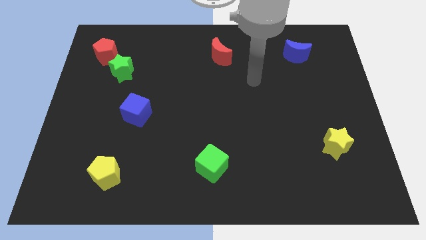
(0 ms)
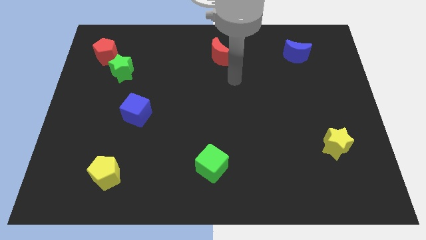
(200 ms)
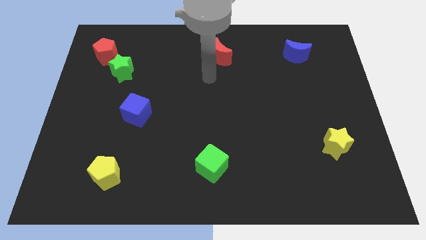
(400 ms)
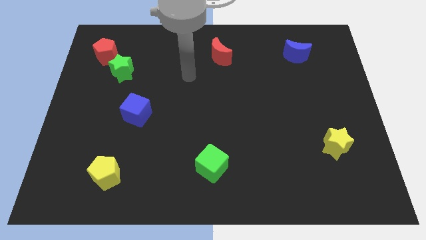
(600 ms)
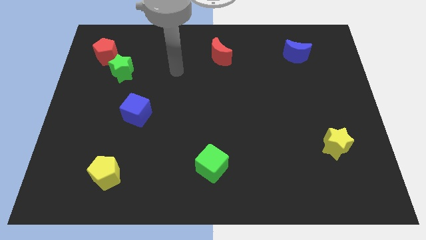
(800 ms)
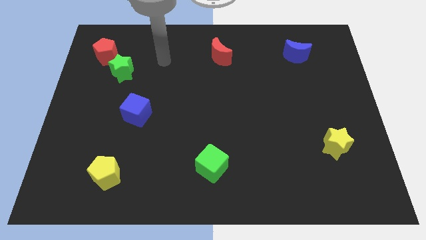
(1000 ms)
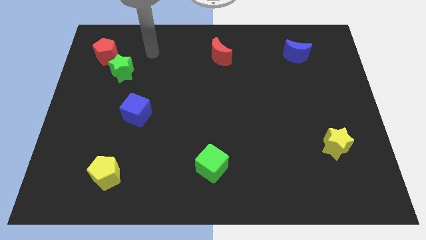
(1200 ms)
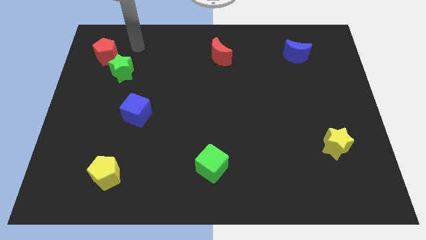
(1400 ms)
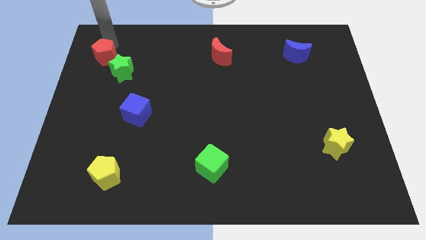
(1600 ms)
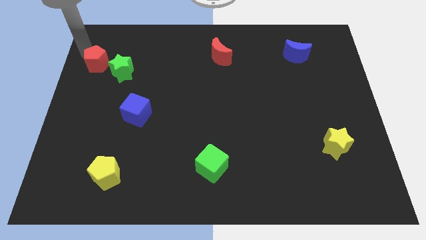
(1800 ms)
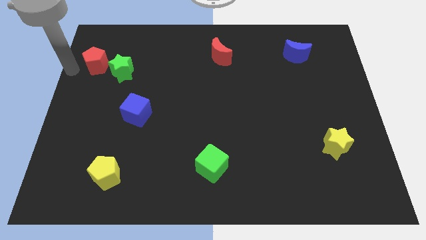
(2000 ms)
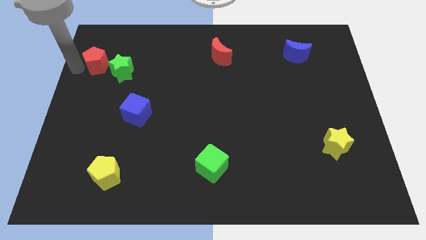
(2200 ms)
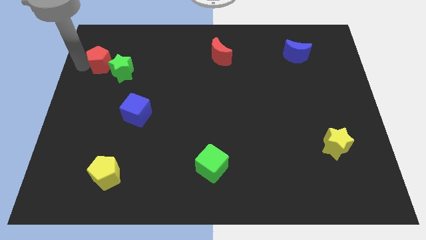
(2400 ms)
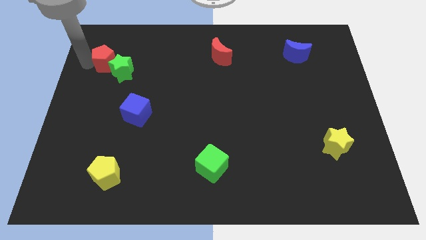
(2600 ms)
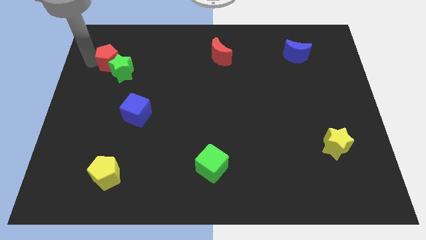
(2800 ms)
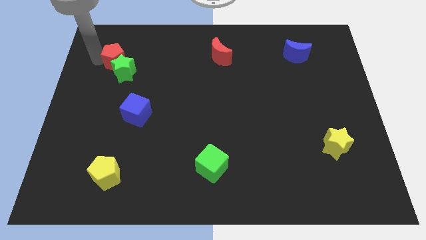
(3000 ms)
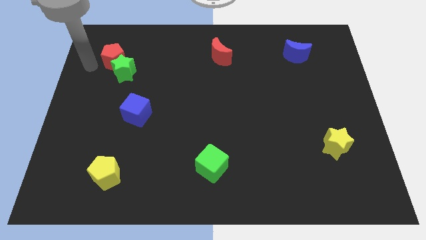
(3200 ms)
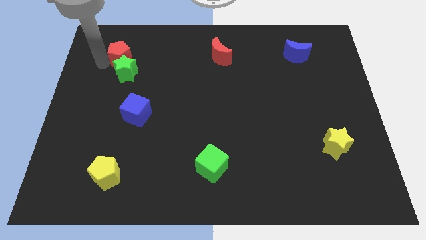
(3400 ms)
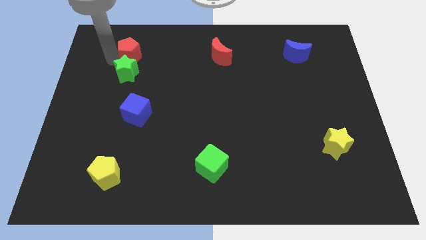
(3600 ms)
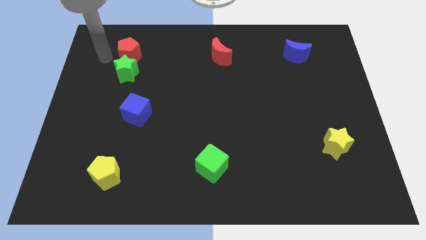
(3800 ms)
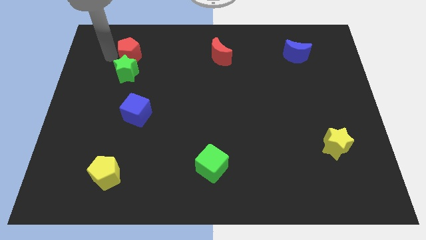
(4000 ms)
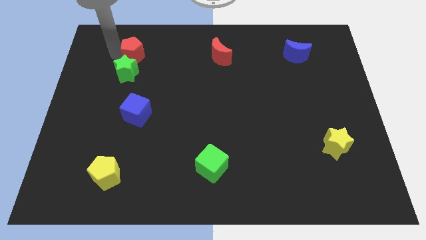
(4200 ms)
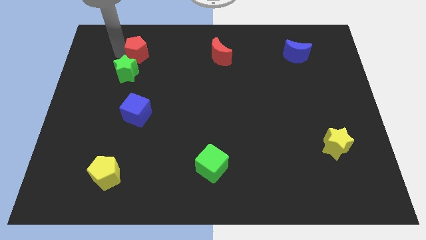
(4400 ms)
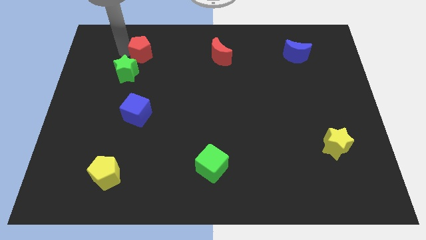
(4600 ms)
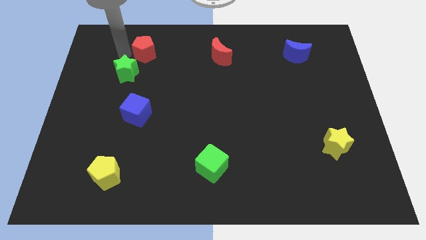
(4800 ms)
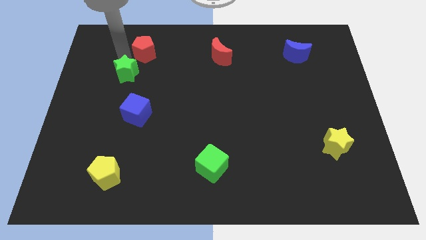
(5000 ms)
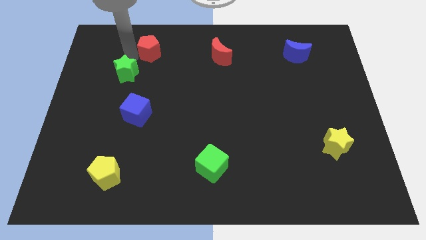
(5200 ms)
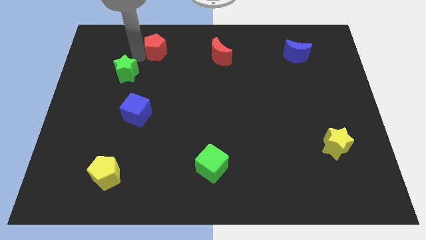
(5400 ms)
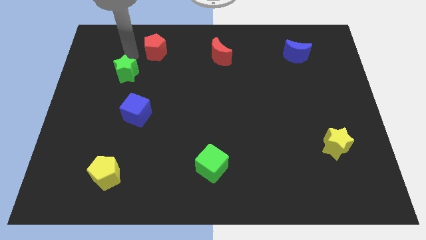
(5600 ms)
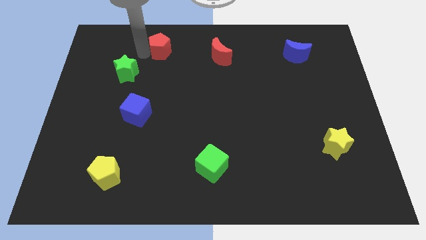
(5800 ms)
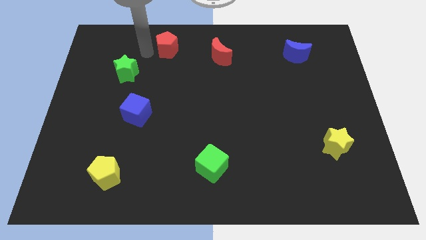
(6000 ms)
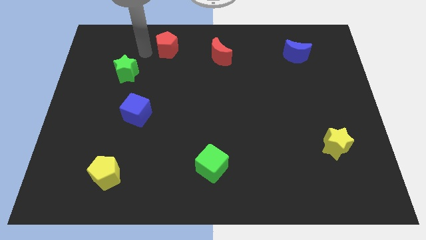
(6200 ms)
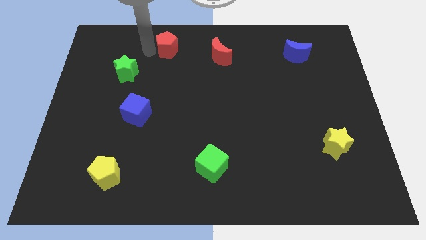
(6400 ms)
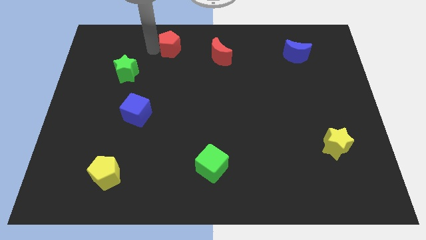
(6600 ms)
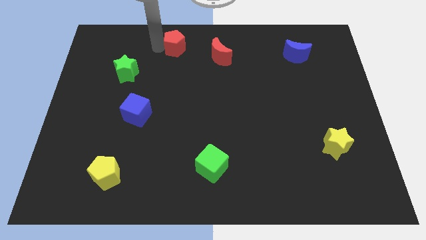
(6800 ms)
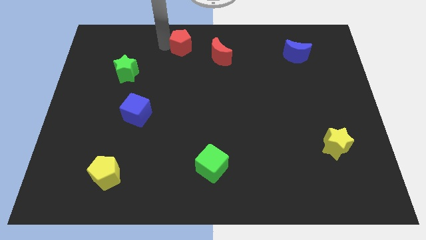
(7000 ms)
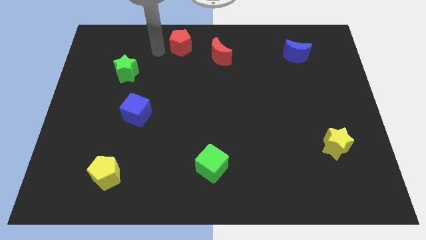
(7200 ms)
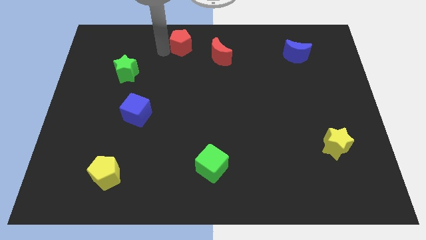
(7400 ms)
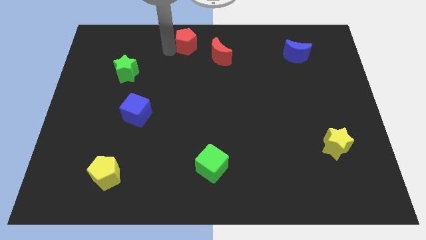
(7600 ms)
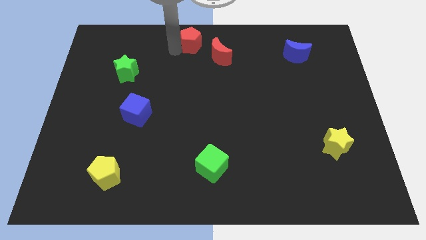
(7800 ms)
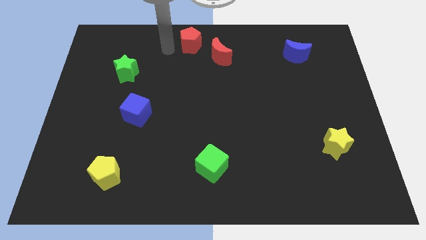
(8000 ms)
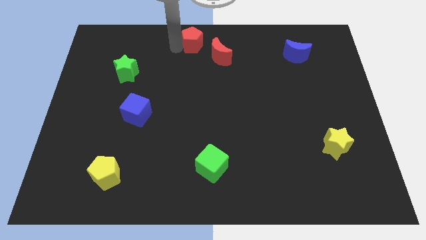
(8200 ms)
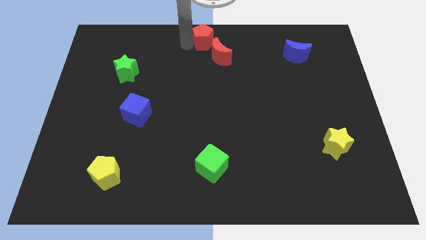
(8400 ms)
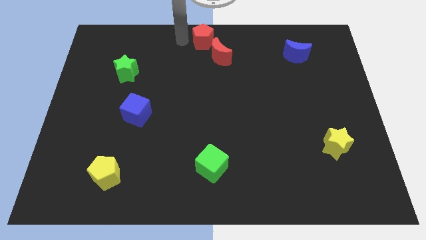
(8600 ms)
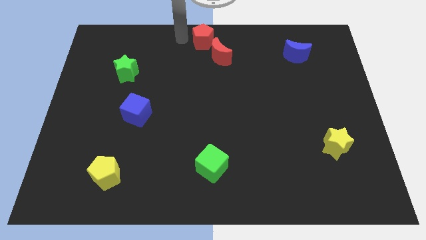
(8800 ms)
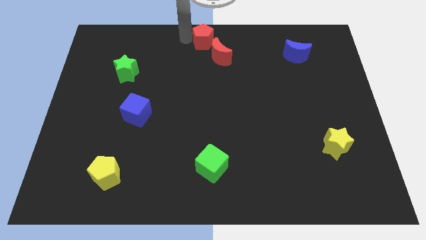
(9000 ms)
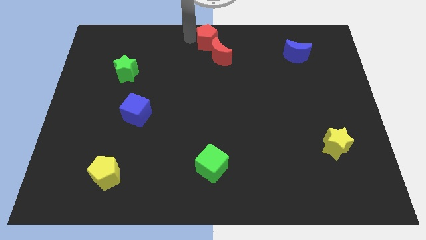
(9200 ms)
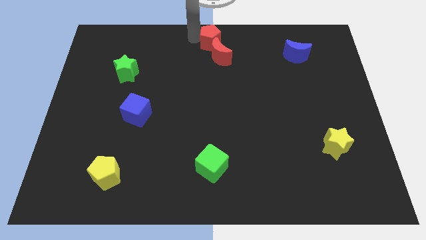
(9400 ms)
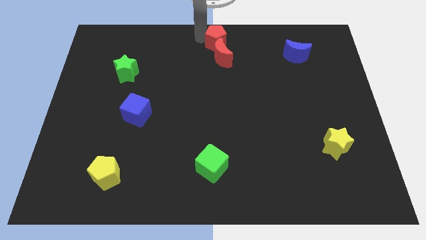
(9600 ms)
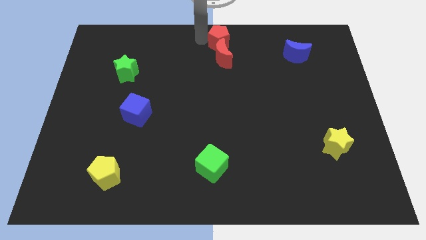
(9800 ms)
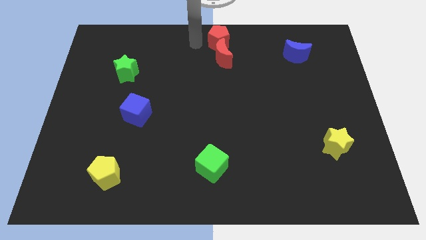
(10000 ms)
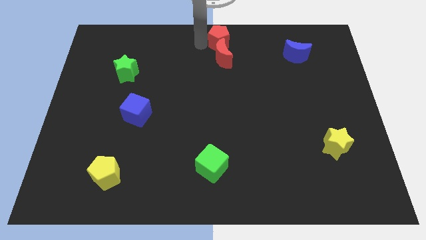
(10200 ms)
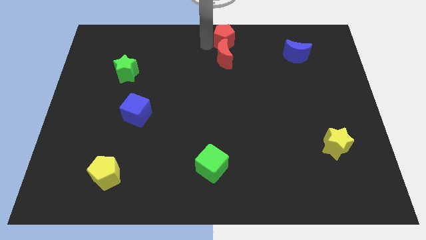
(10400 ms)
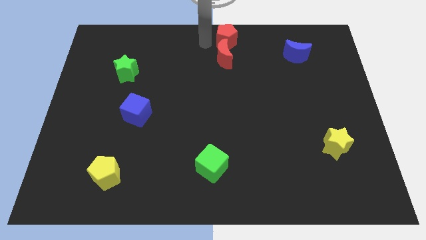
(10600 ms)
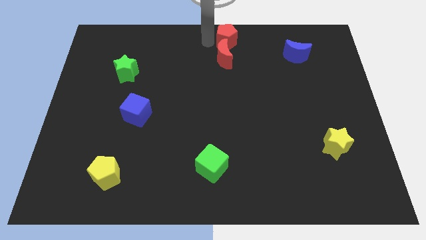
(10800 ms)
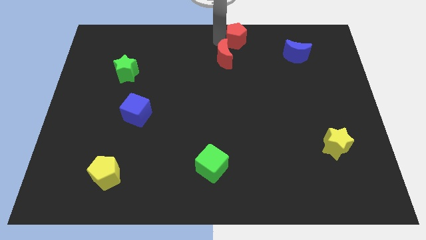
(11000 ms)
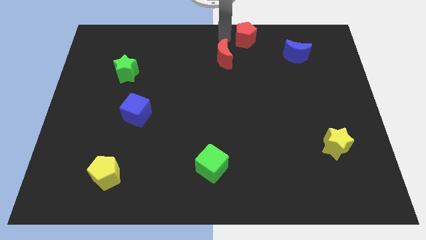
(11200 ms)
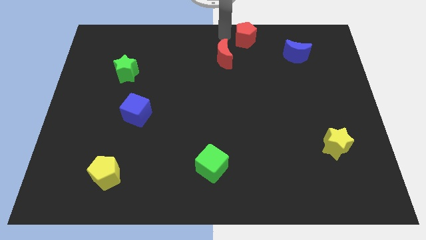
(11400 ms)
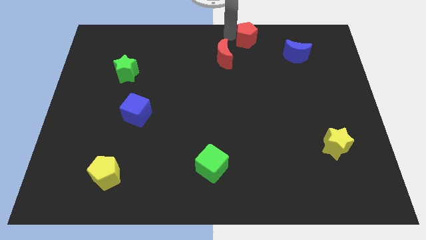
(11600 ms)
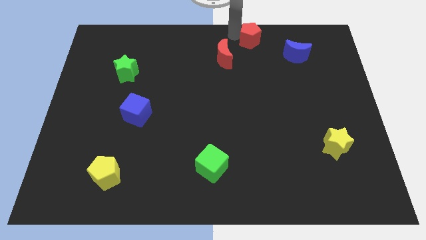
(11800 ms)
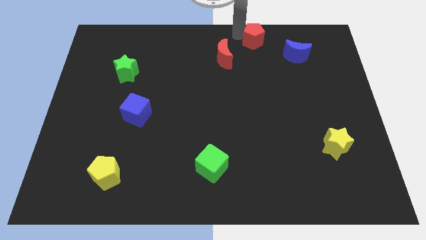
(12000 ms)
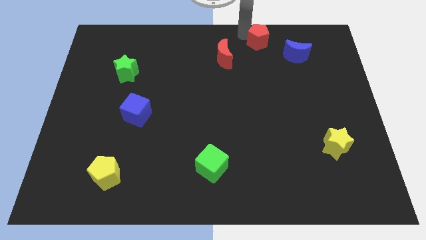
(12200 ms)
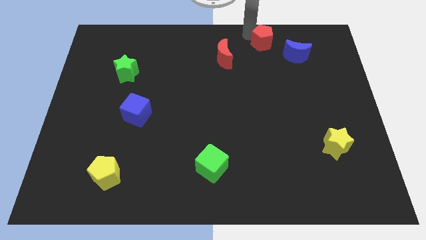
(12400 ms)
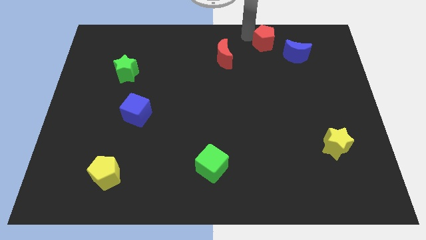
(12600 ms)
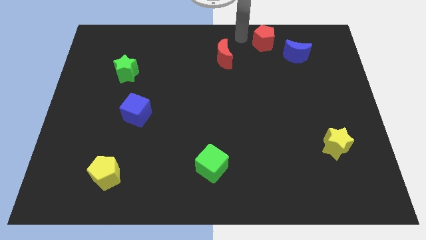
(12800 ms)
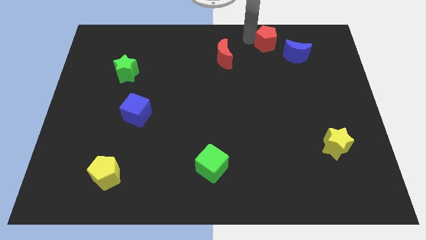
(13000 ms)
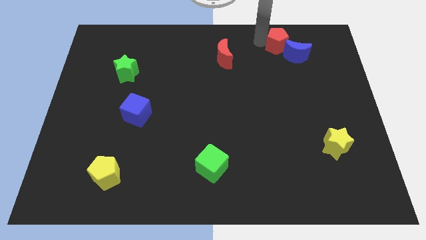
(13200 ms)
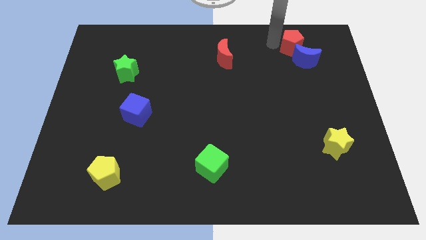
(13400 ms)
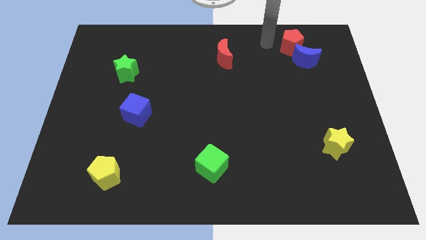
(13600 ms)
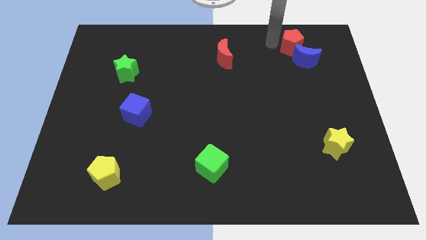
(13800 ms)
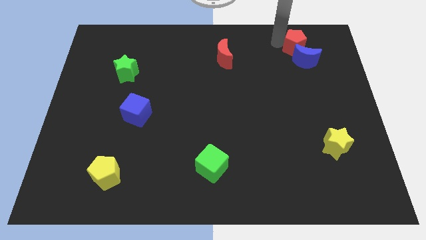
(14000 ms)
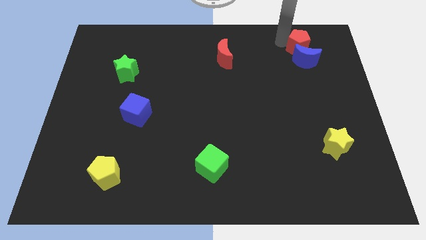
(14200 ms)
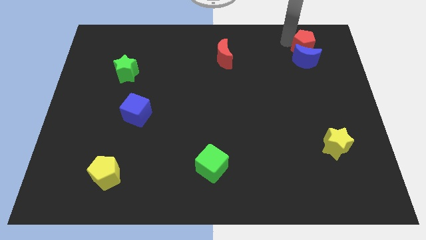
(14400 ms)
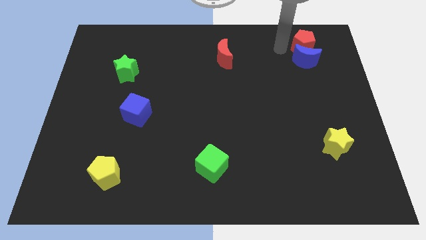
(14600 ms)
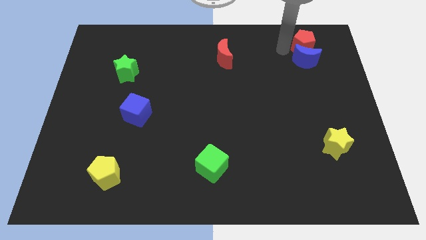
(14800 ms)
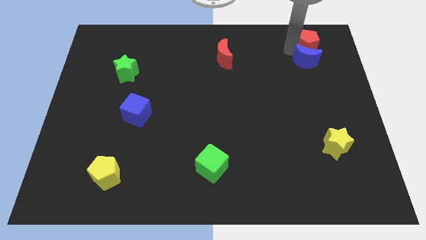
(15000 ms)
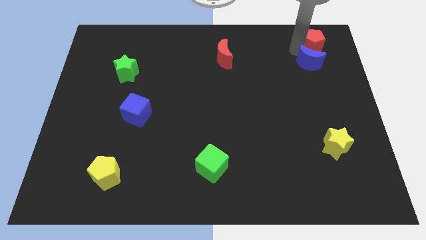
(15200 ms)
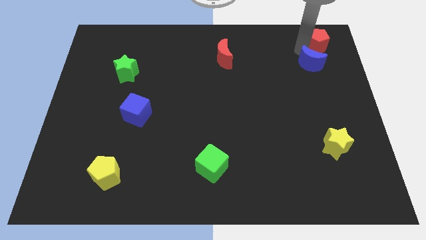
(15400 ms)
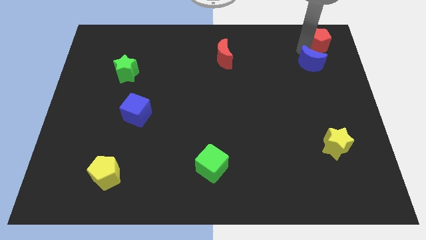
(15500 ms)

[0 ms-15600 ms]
put the red pentagon to the upper right corner
